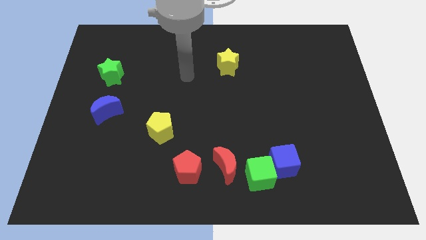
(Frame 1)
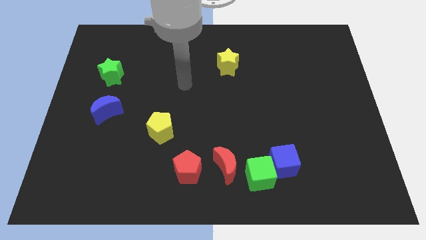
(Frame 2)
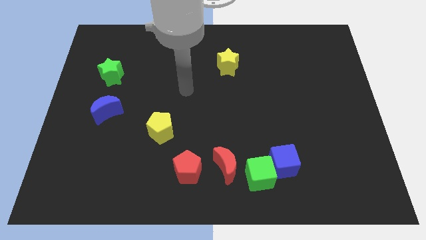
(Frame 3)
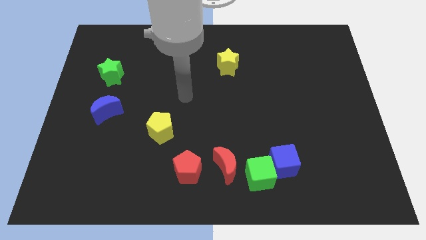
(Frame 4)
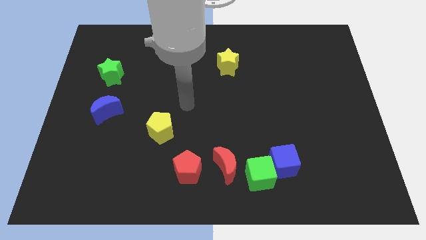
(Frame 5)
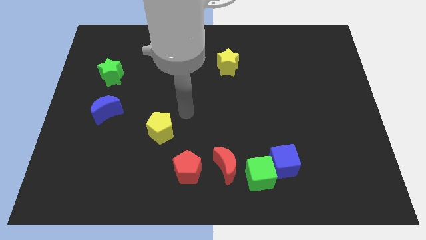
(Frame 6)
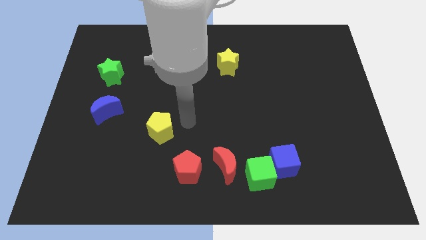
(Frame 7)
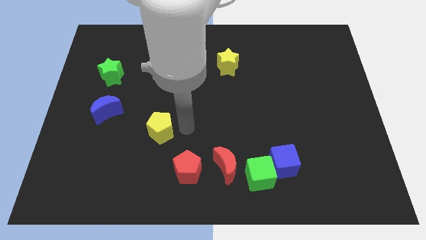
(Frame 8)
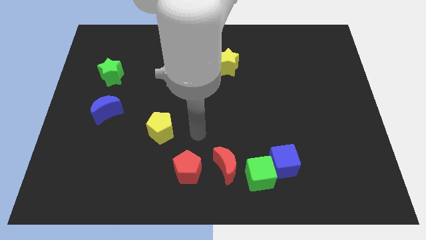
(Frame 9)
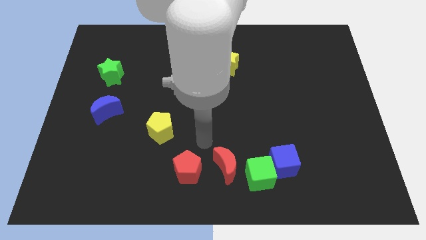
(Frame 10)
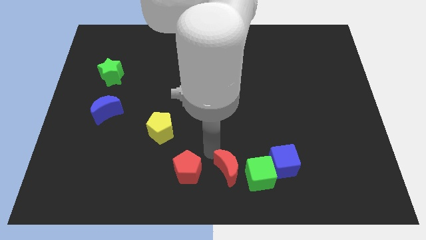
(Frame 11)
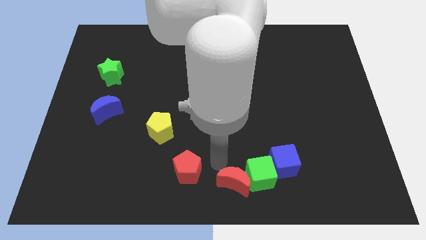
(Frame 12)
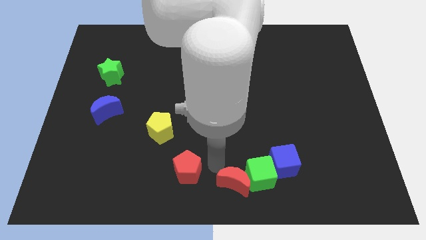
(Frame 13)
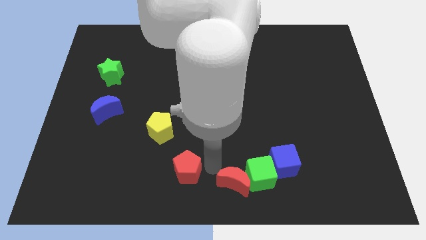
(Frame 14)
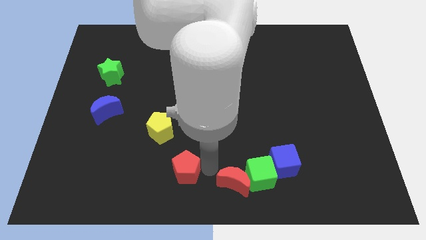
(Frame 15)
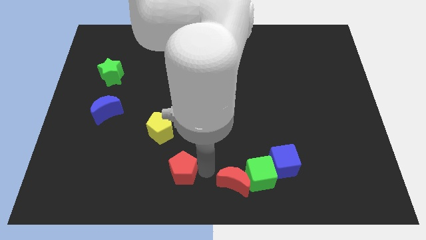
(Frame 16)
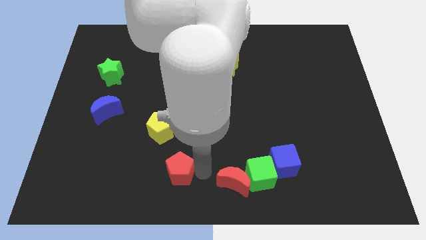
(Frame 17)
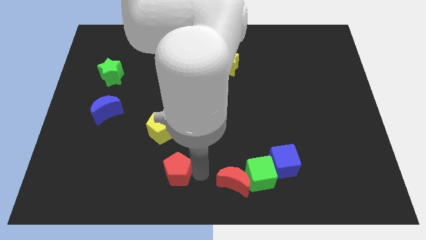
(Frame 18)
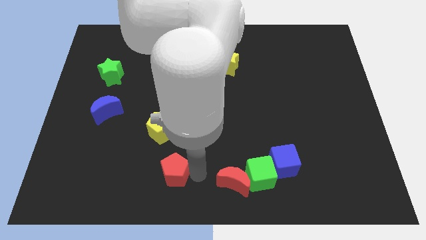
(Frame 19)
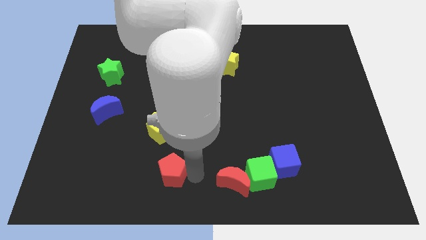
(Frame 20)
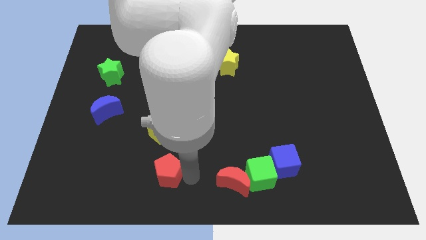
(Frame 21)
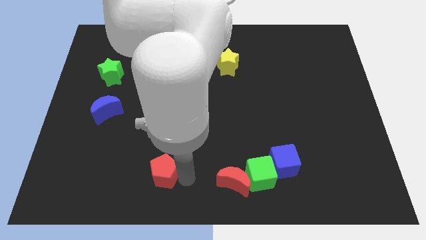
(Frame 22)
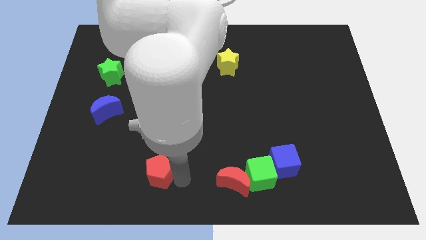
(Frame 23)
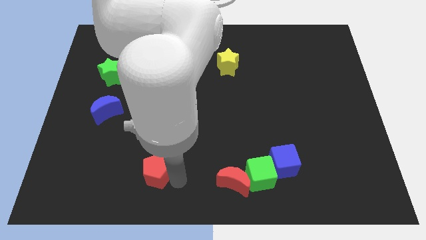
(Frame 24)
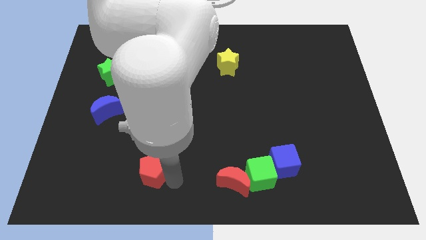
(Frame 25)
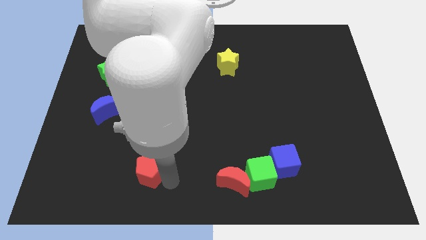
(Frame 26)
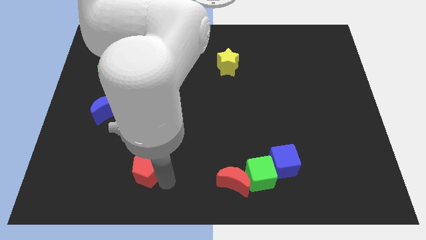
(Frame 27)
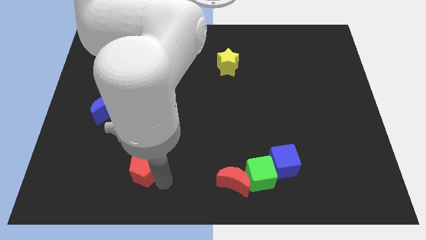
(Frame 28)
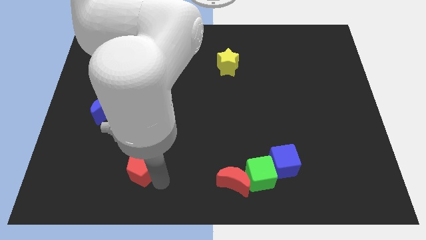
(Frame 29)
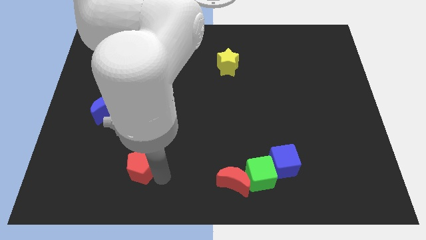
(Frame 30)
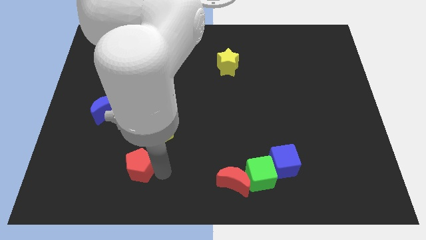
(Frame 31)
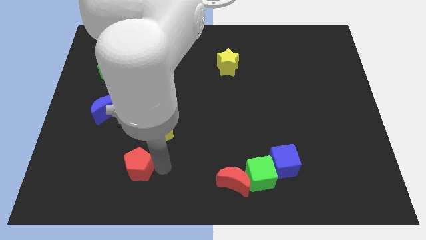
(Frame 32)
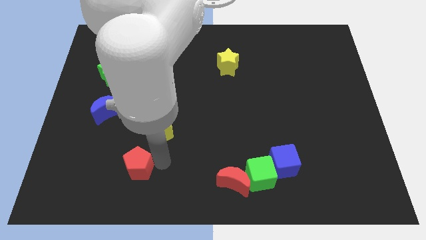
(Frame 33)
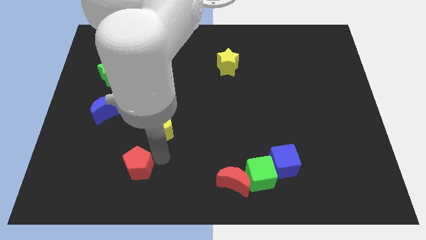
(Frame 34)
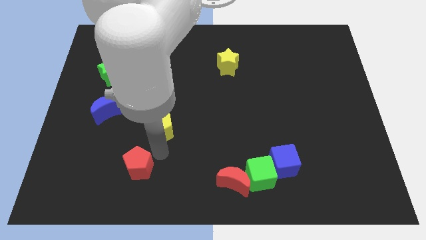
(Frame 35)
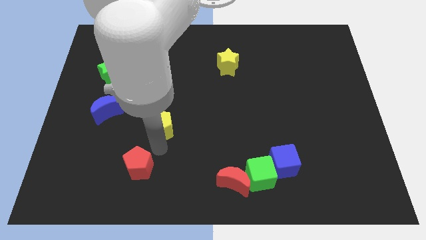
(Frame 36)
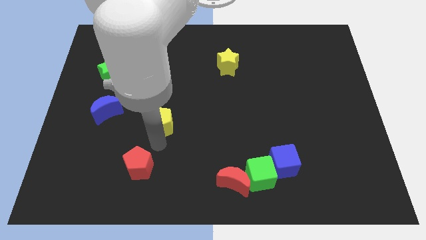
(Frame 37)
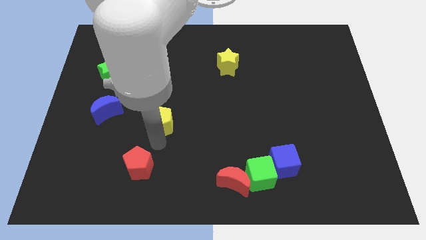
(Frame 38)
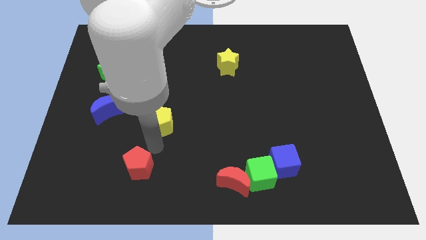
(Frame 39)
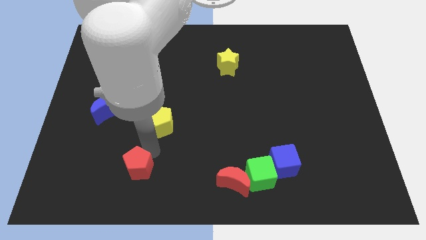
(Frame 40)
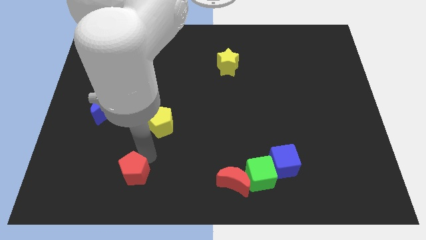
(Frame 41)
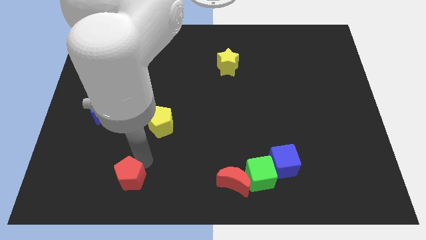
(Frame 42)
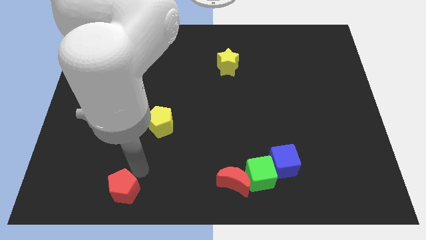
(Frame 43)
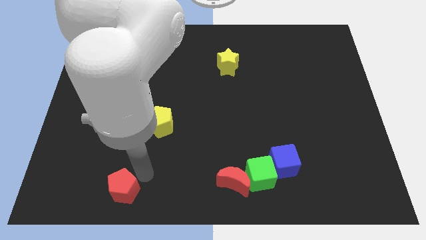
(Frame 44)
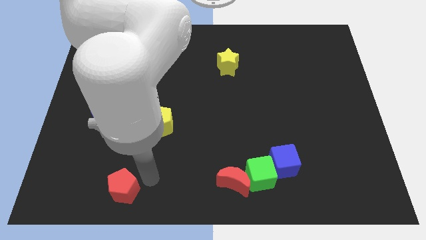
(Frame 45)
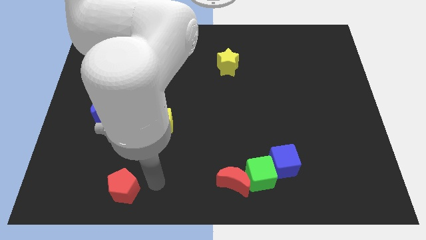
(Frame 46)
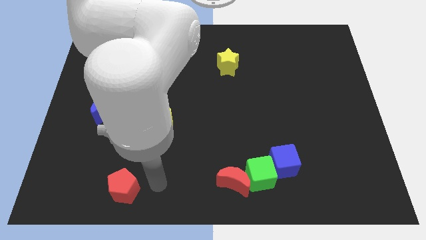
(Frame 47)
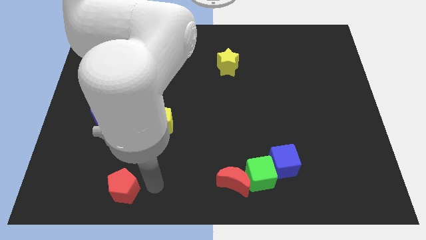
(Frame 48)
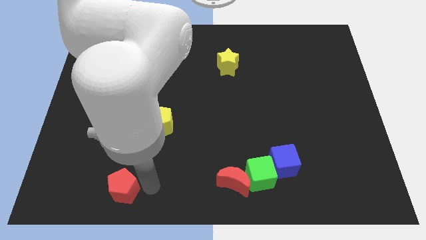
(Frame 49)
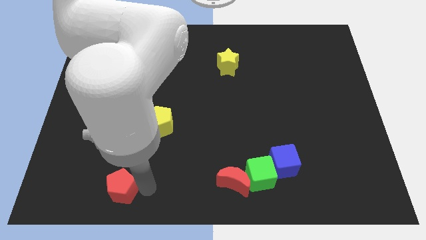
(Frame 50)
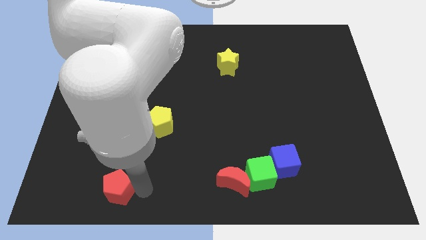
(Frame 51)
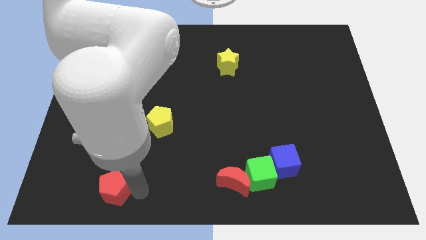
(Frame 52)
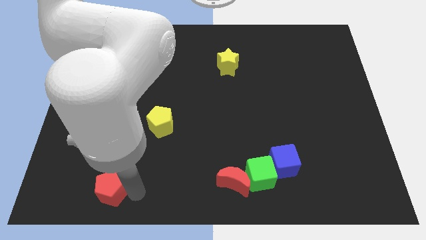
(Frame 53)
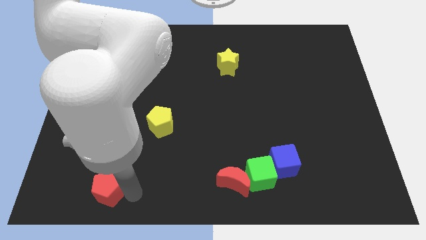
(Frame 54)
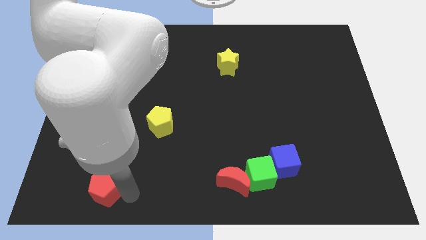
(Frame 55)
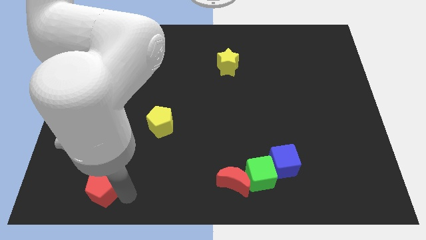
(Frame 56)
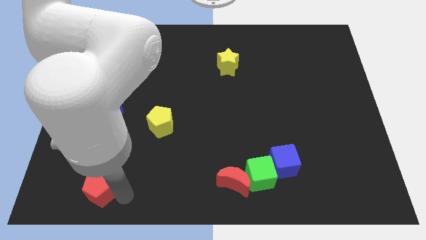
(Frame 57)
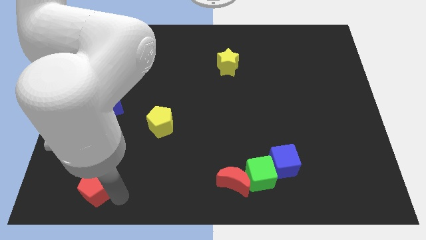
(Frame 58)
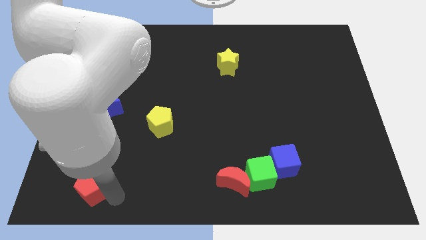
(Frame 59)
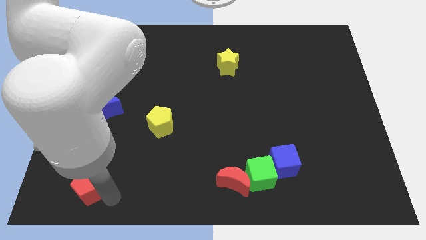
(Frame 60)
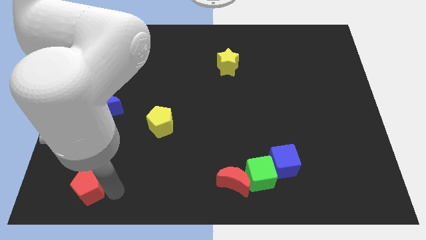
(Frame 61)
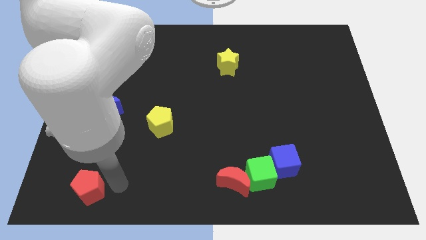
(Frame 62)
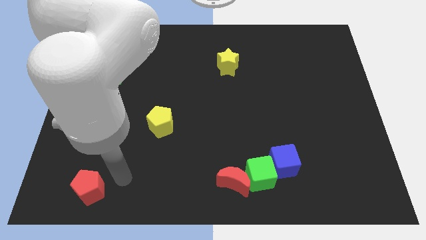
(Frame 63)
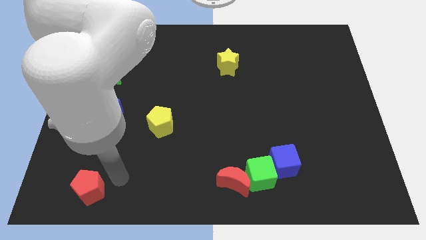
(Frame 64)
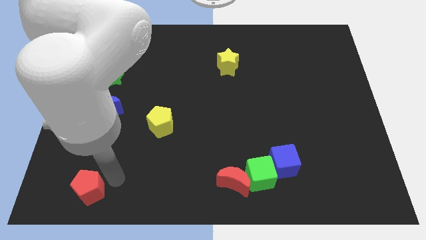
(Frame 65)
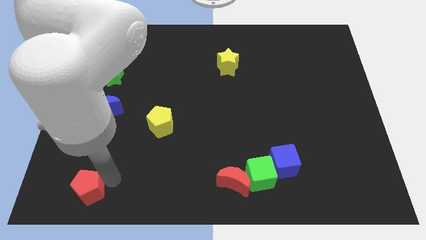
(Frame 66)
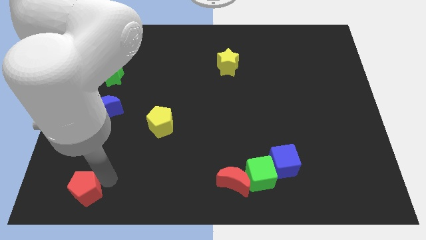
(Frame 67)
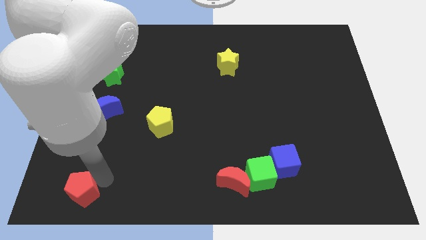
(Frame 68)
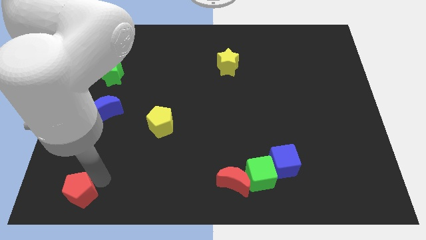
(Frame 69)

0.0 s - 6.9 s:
slide the red pentagon to the lower left corner

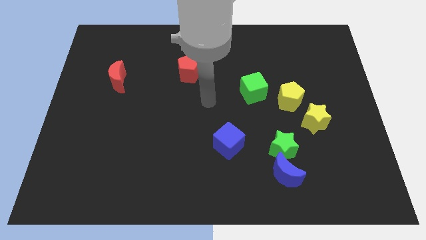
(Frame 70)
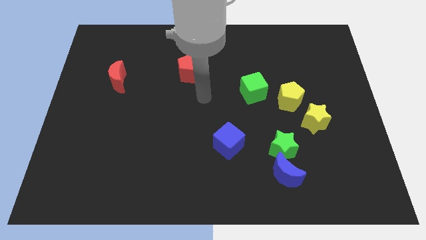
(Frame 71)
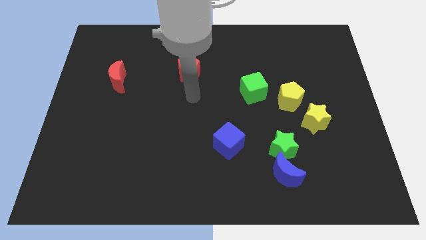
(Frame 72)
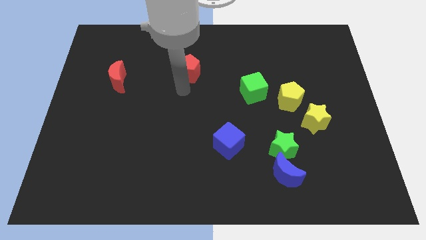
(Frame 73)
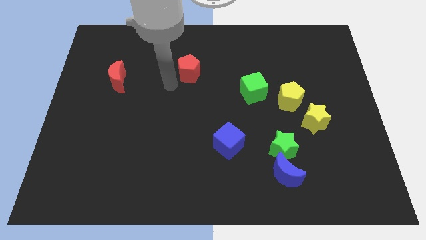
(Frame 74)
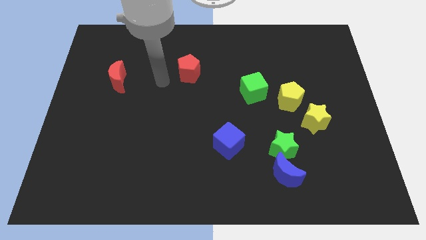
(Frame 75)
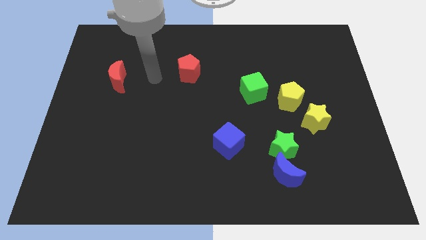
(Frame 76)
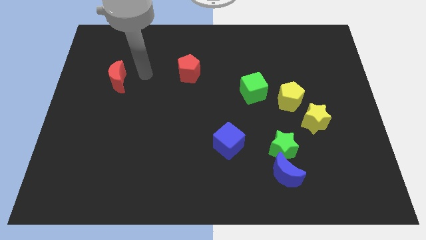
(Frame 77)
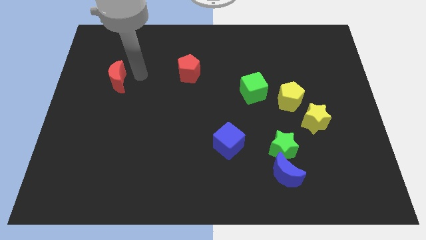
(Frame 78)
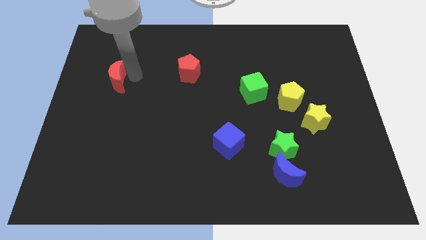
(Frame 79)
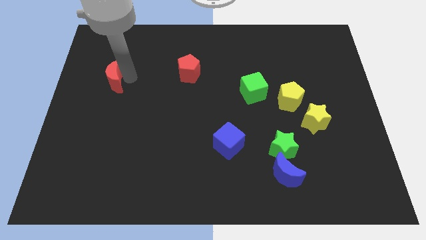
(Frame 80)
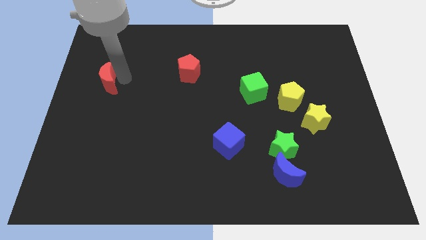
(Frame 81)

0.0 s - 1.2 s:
put the red moon to the left side
